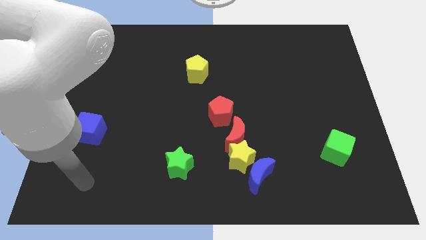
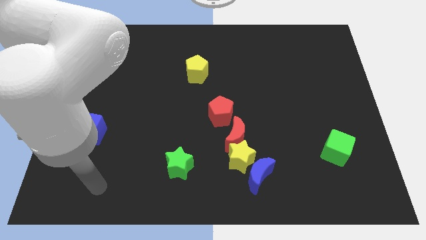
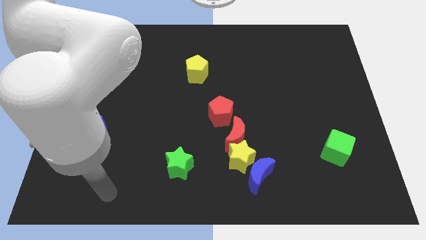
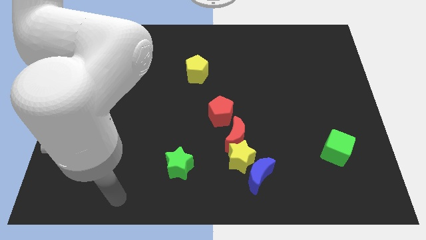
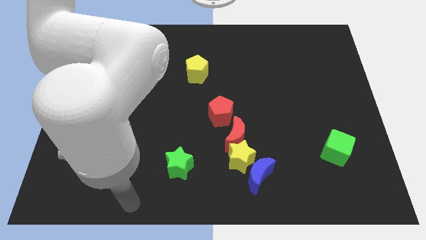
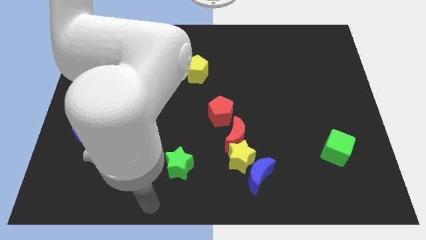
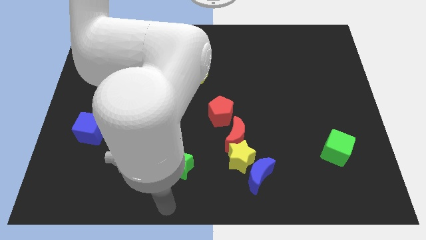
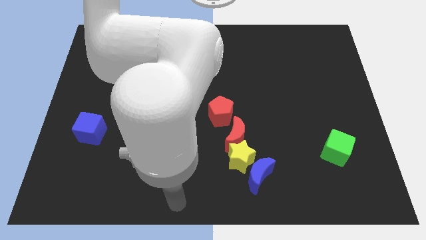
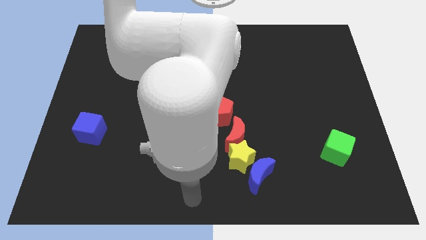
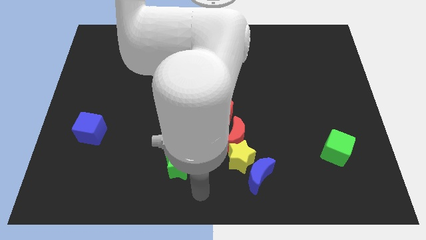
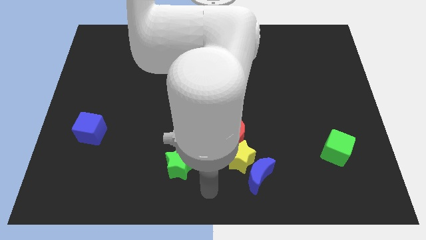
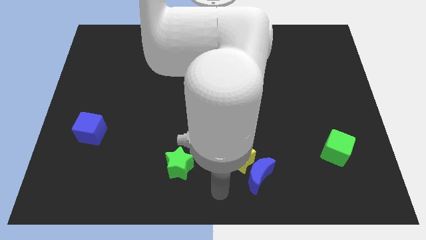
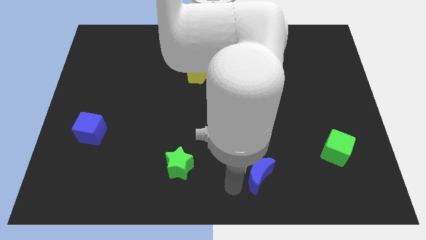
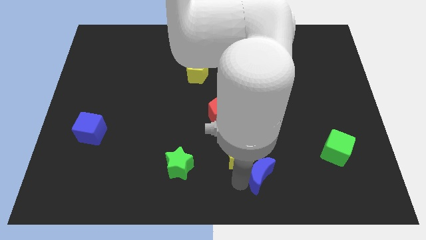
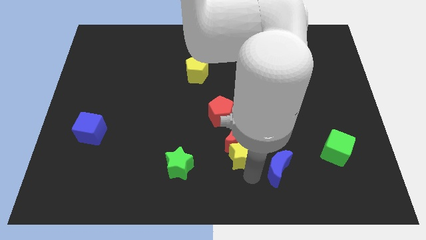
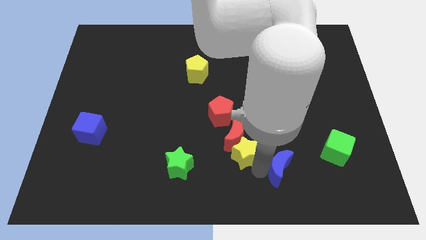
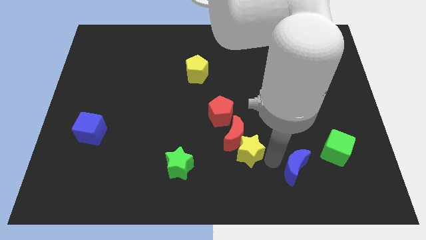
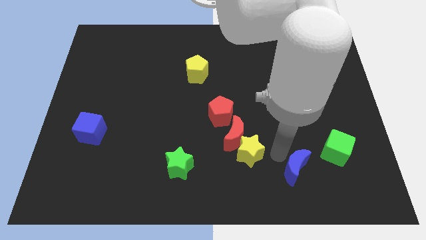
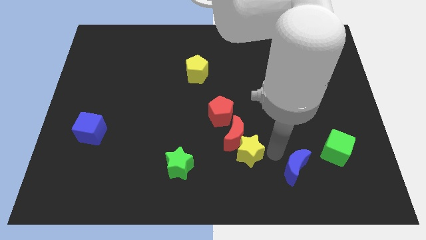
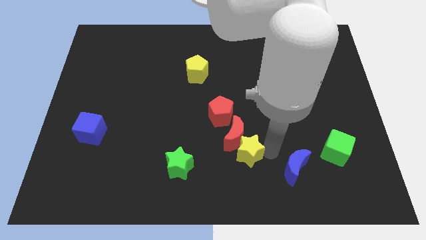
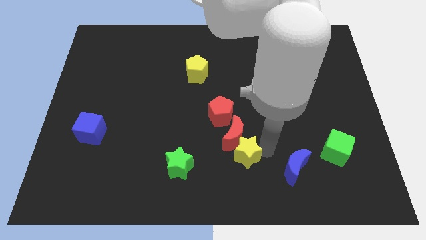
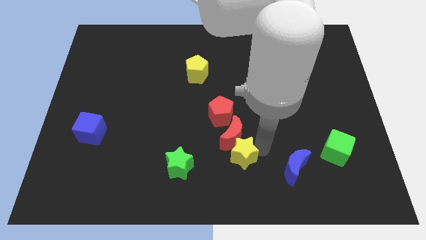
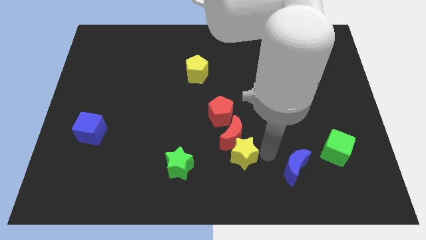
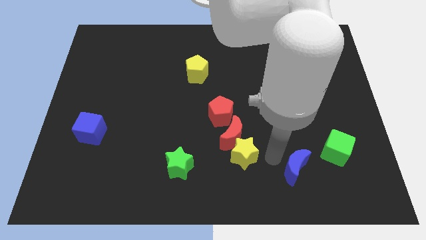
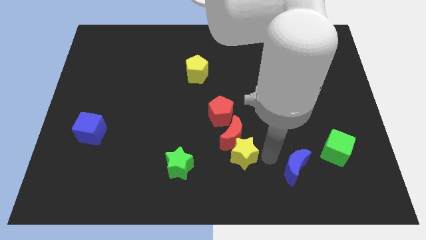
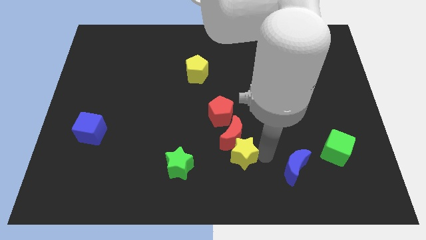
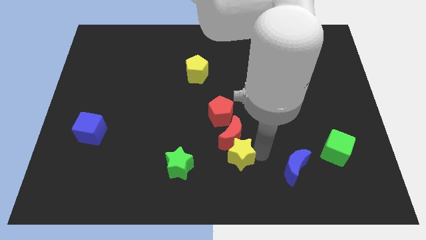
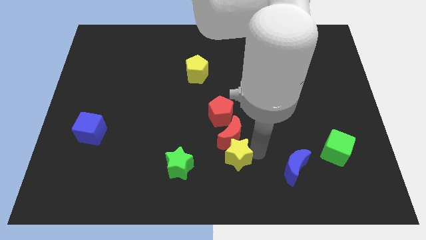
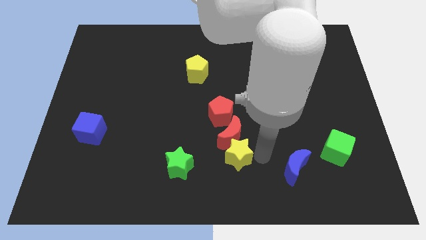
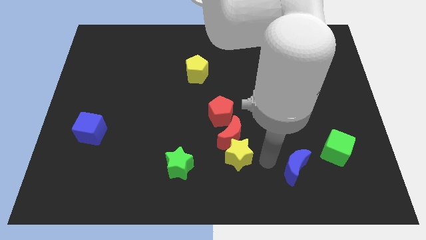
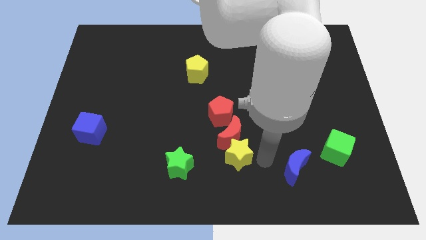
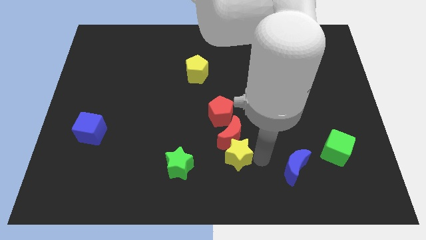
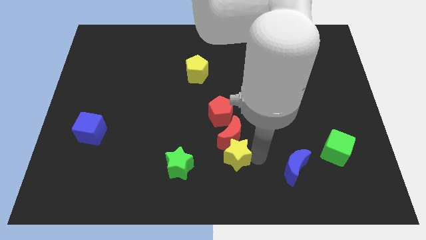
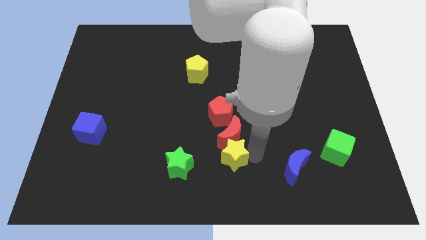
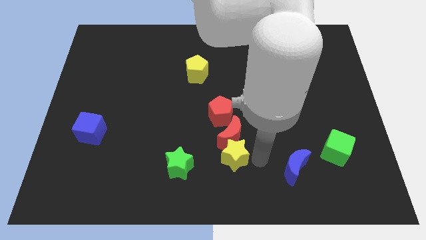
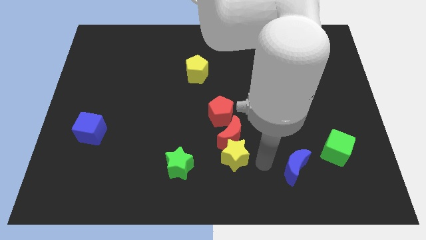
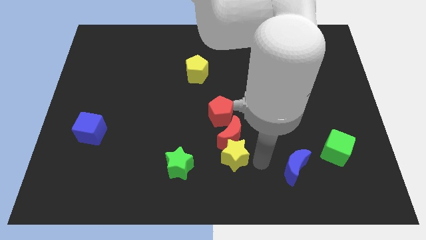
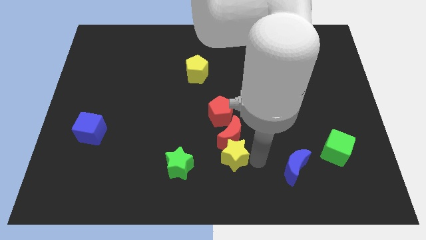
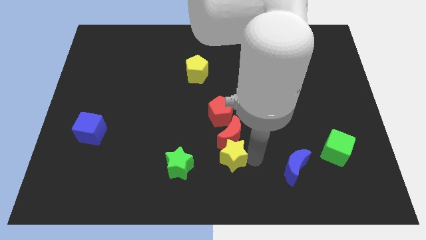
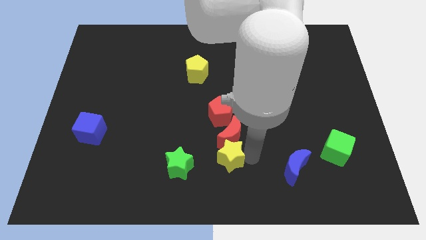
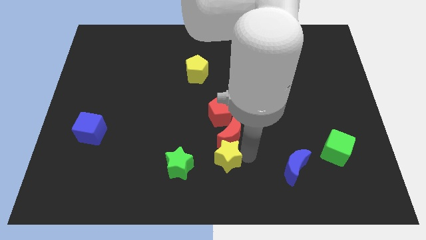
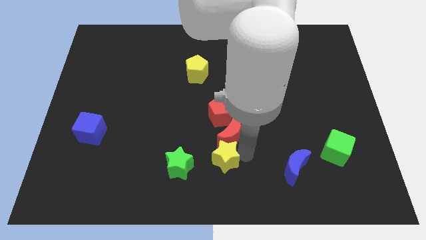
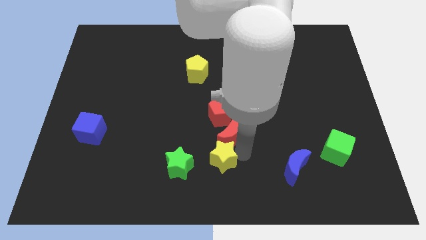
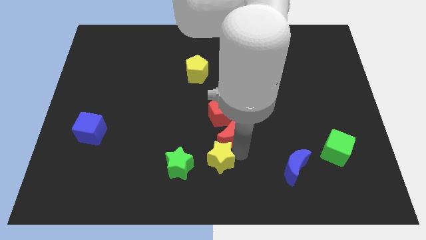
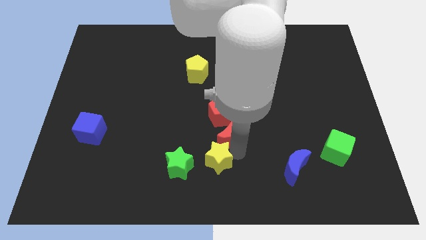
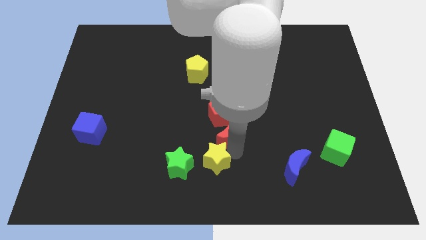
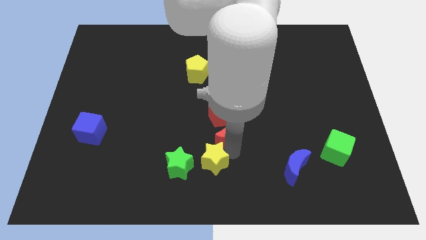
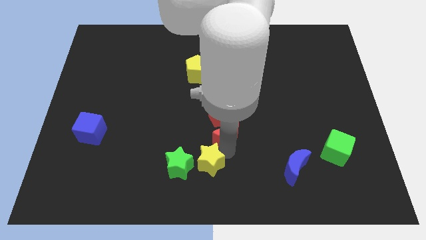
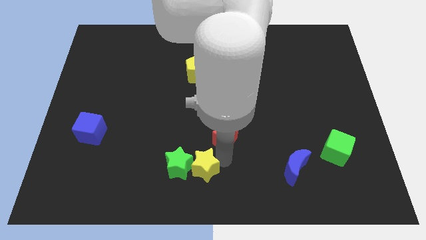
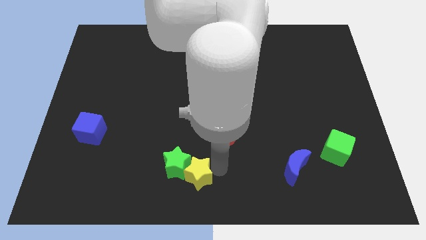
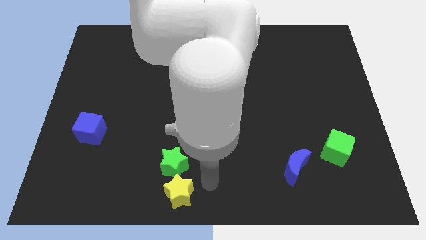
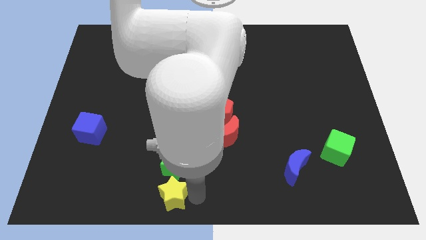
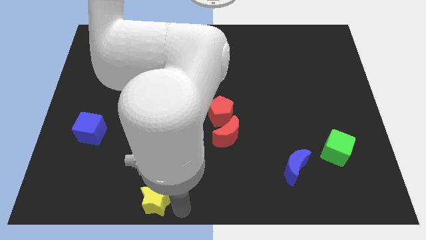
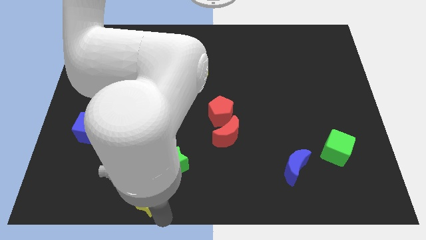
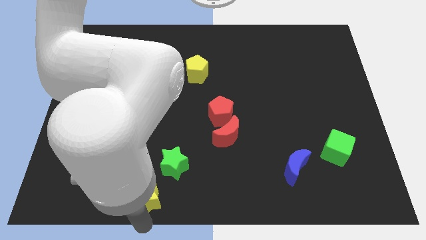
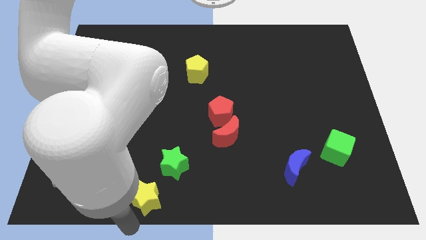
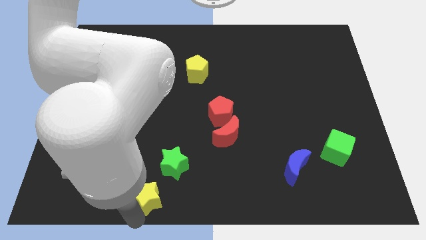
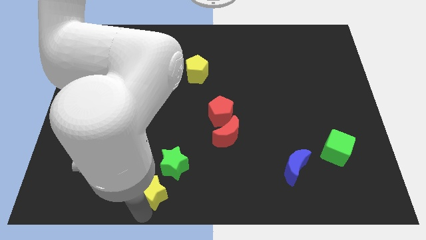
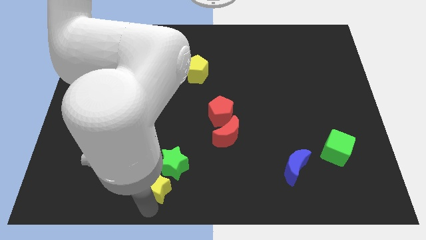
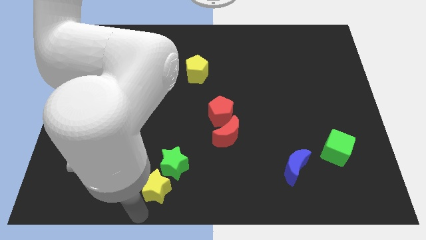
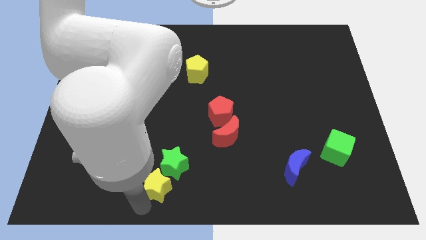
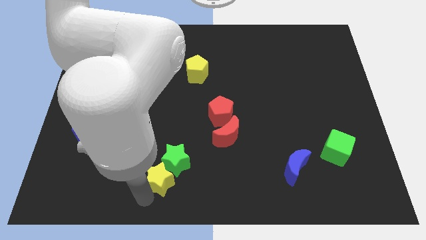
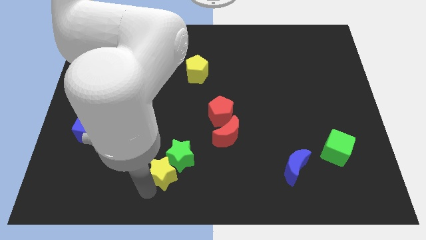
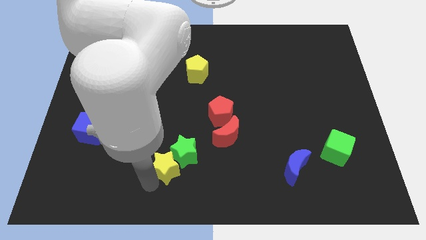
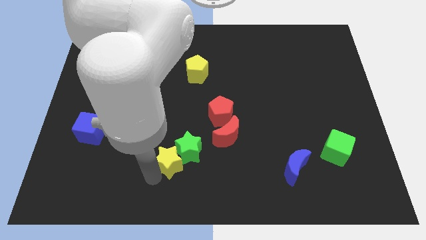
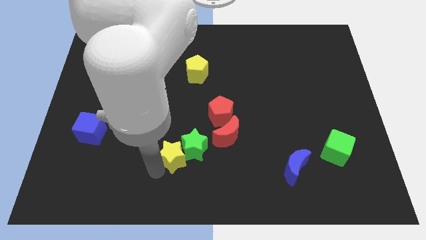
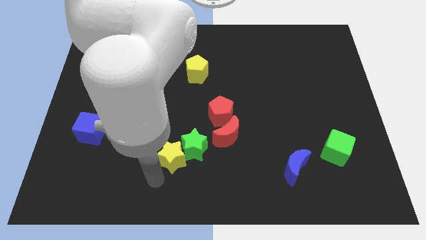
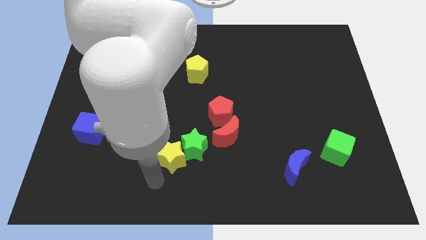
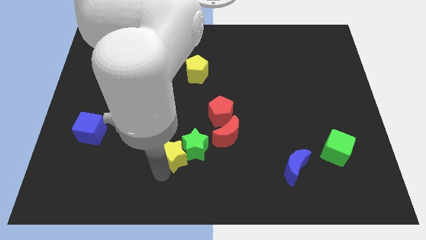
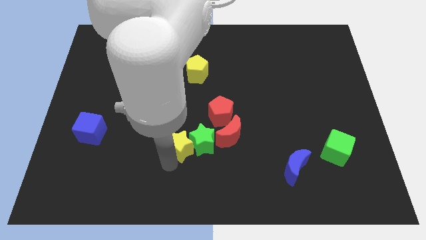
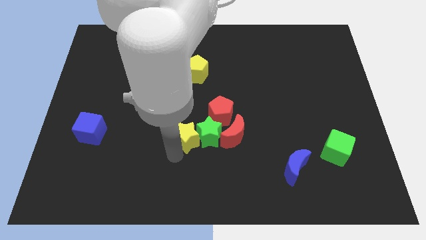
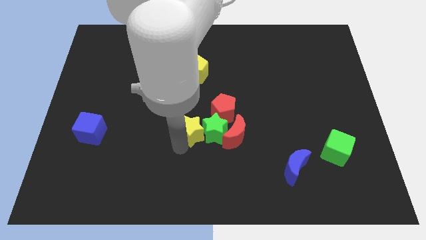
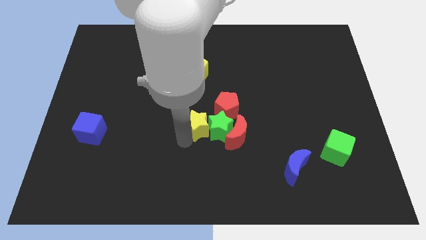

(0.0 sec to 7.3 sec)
put the yellow star to the top left of the red moon
